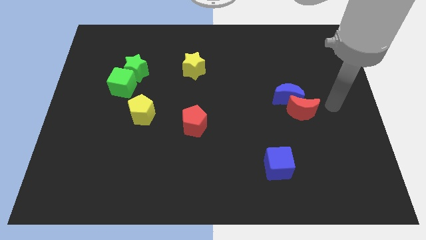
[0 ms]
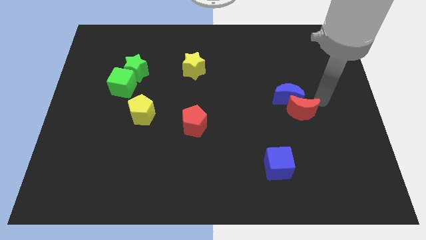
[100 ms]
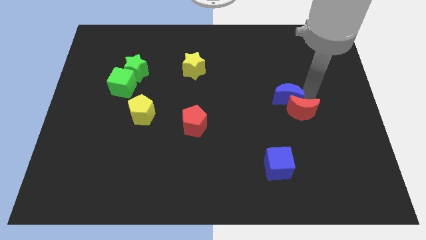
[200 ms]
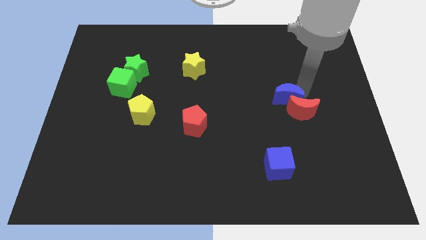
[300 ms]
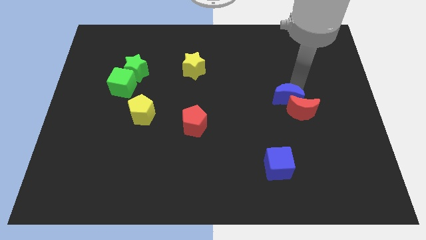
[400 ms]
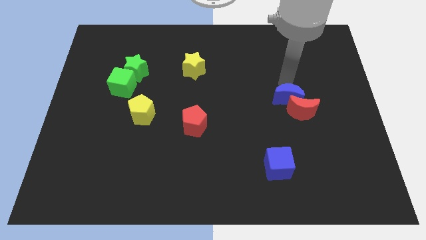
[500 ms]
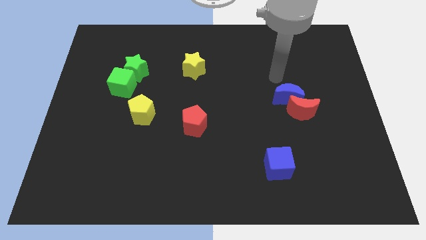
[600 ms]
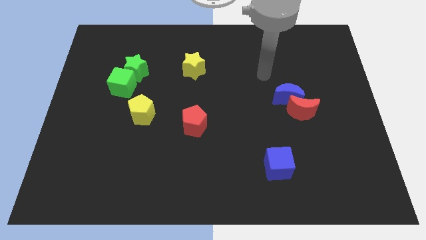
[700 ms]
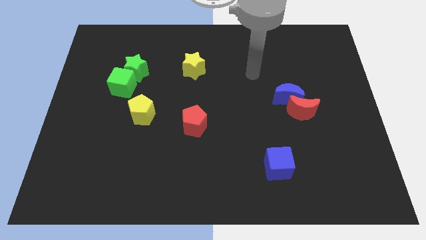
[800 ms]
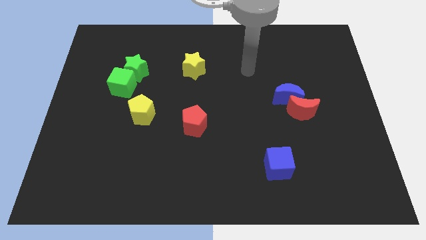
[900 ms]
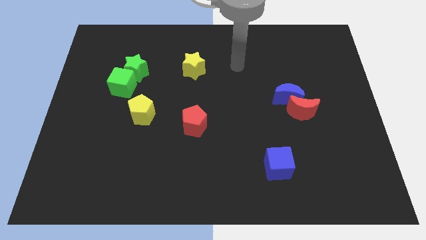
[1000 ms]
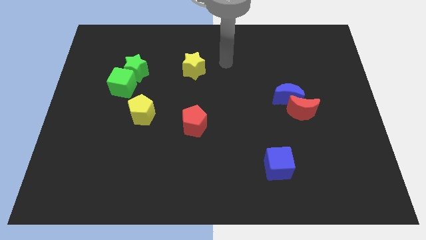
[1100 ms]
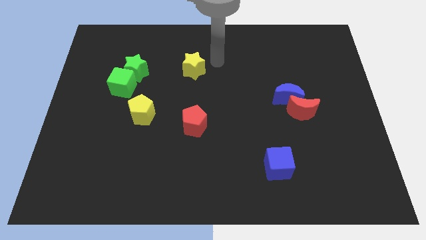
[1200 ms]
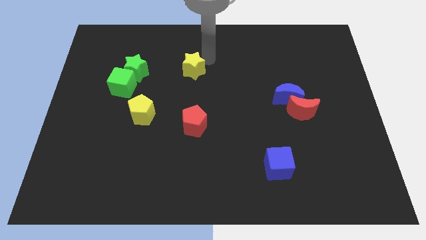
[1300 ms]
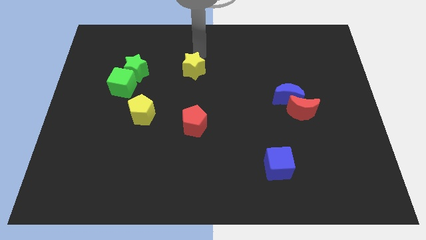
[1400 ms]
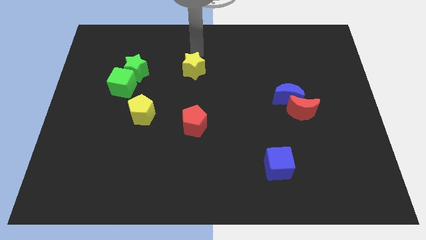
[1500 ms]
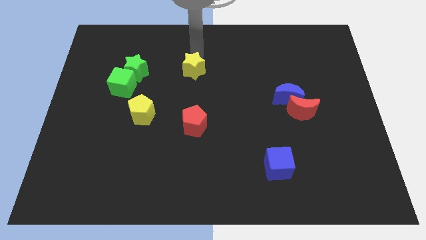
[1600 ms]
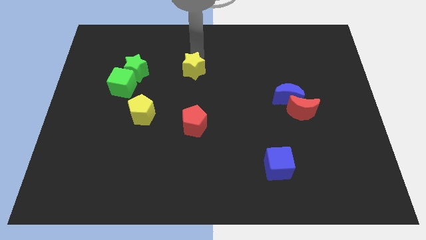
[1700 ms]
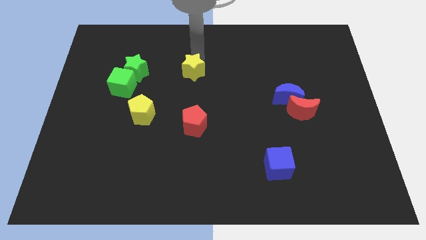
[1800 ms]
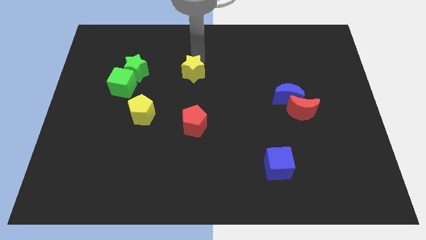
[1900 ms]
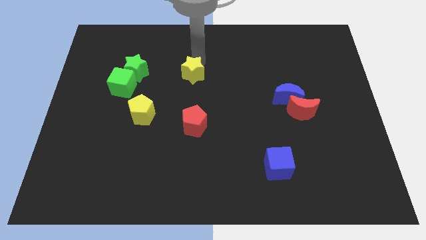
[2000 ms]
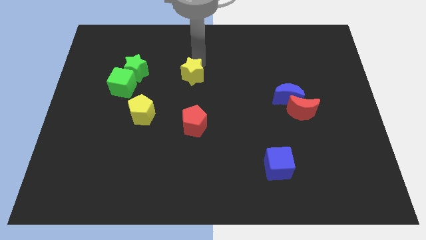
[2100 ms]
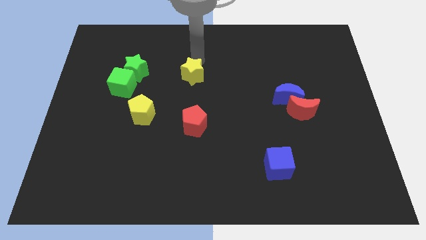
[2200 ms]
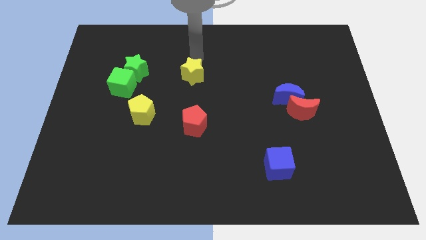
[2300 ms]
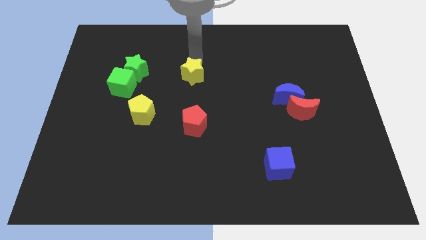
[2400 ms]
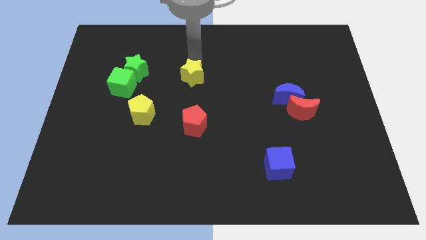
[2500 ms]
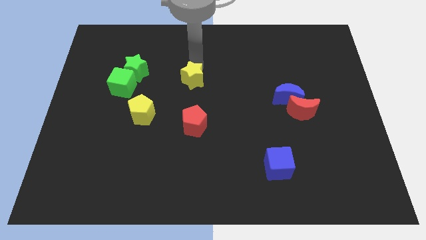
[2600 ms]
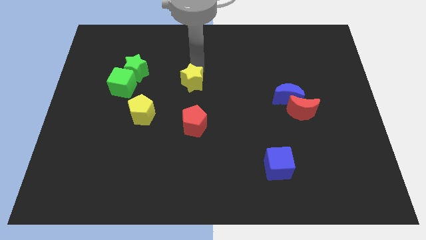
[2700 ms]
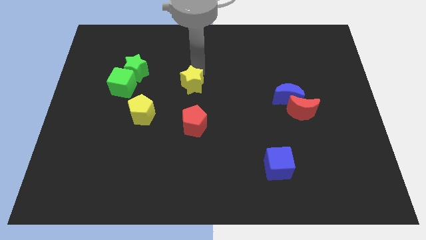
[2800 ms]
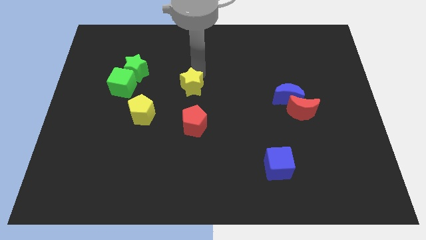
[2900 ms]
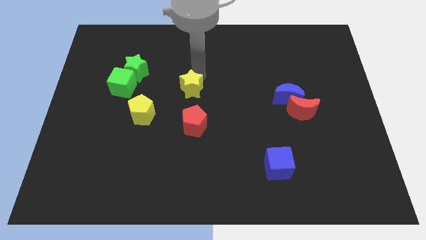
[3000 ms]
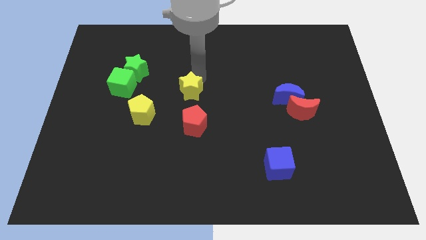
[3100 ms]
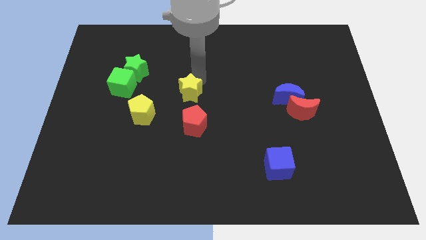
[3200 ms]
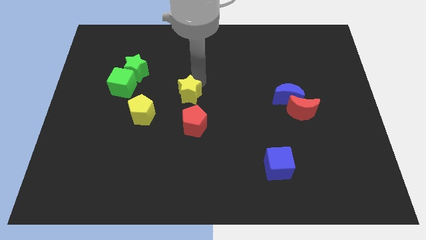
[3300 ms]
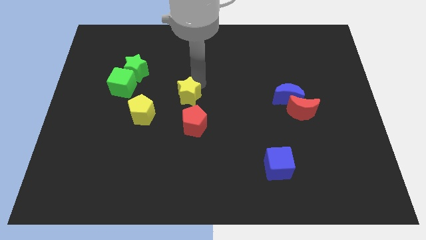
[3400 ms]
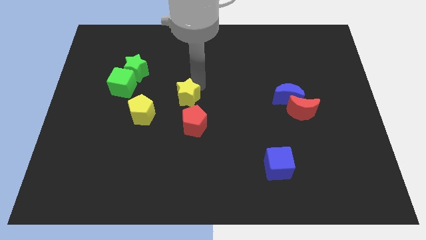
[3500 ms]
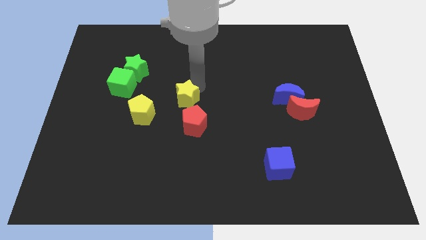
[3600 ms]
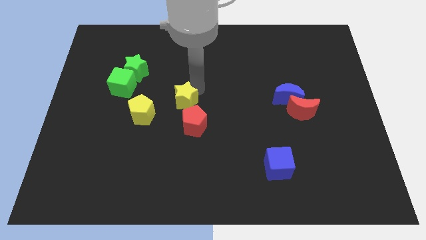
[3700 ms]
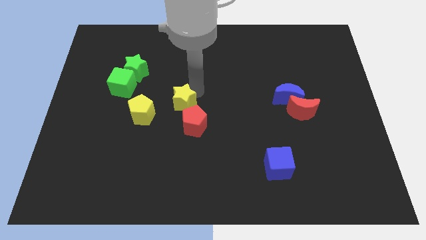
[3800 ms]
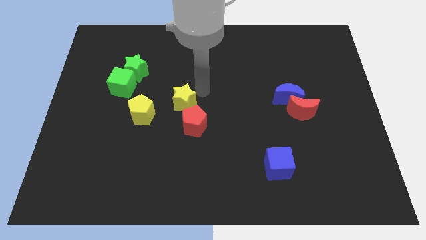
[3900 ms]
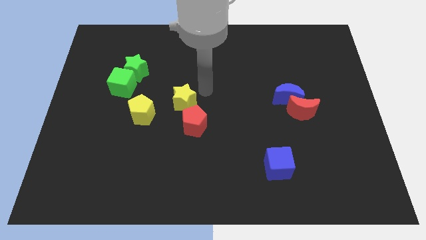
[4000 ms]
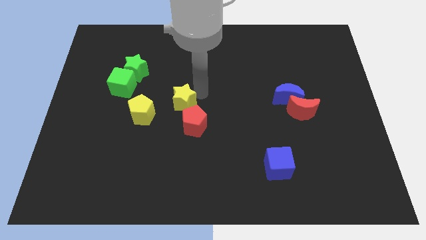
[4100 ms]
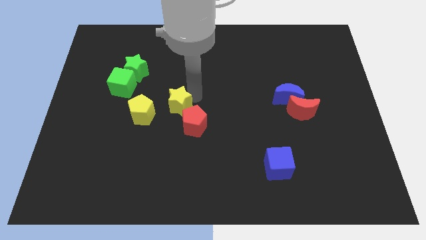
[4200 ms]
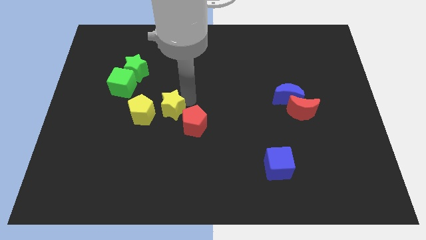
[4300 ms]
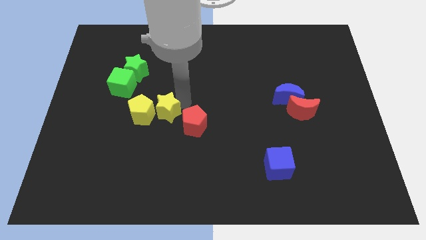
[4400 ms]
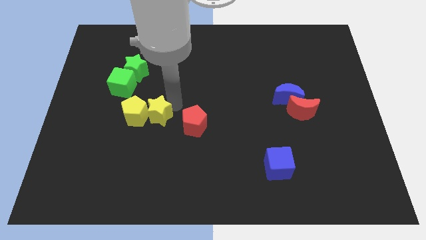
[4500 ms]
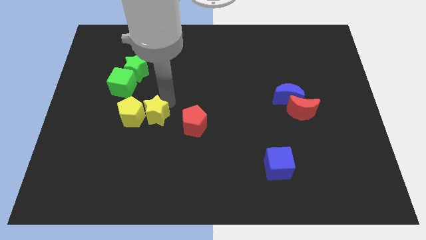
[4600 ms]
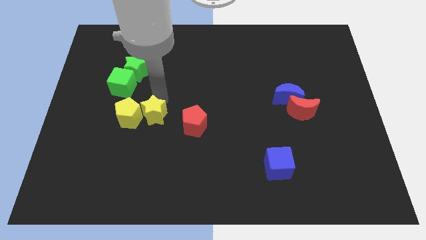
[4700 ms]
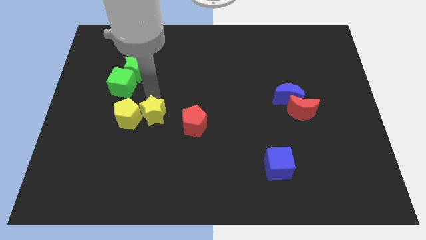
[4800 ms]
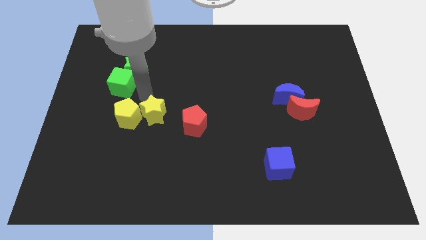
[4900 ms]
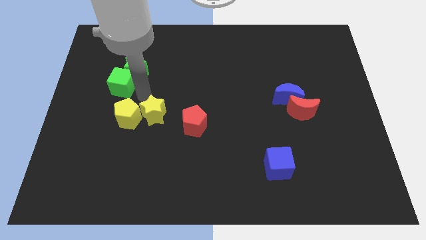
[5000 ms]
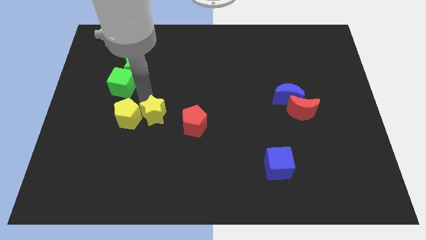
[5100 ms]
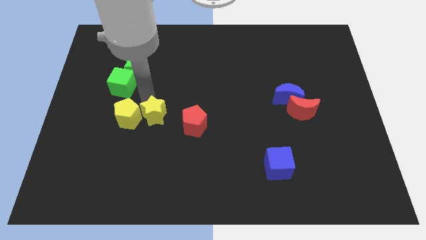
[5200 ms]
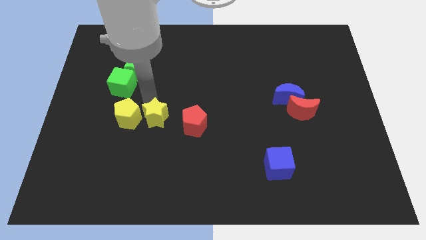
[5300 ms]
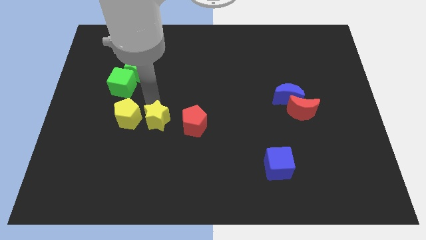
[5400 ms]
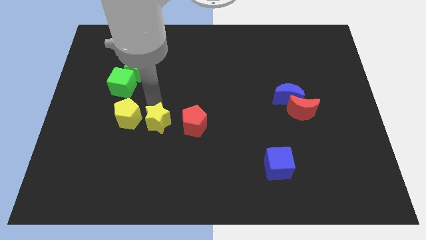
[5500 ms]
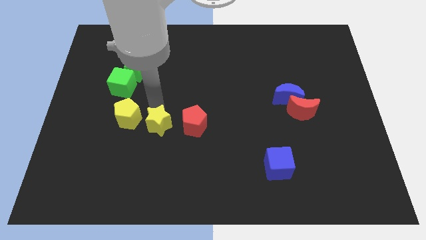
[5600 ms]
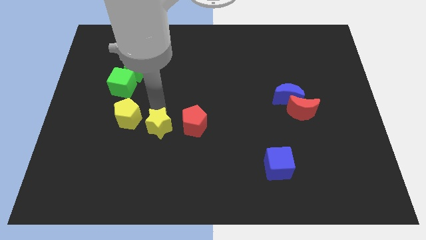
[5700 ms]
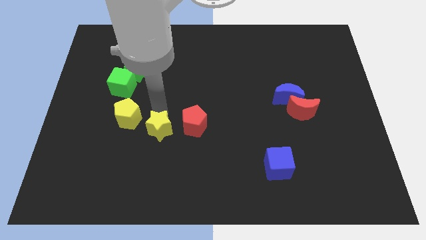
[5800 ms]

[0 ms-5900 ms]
move the yellow star to the bottom left of the red pentagon

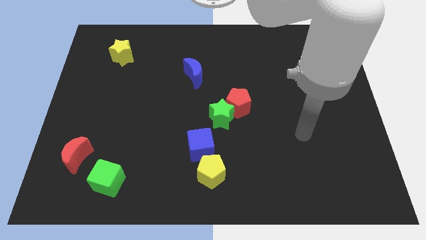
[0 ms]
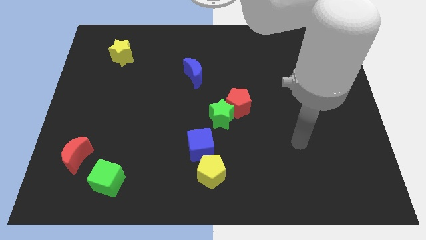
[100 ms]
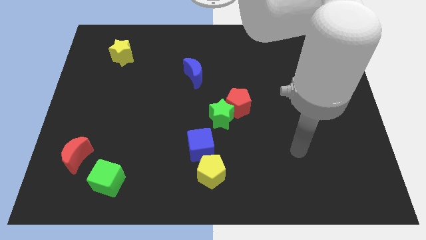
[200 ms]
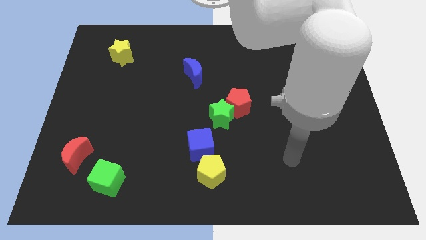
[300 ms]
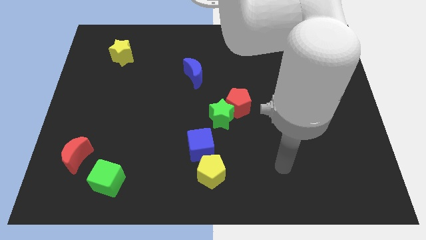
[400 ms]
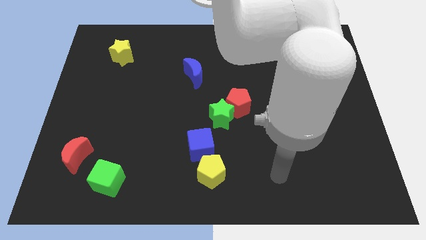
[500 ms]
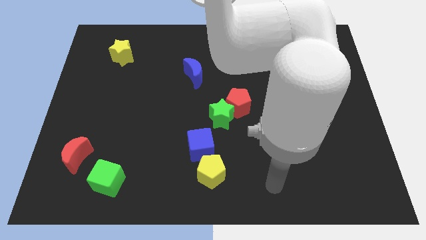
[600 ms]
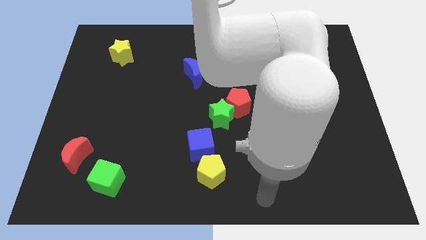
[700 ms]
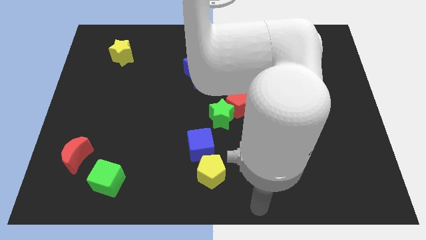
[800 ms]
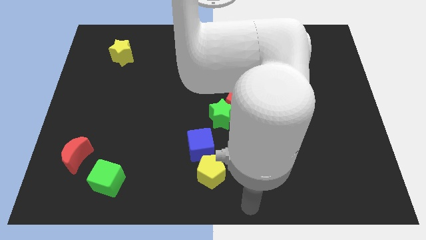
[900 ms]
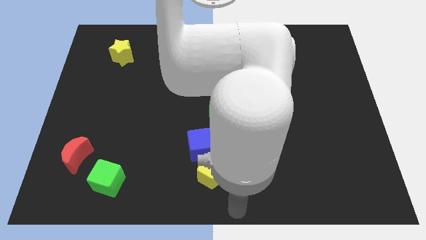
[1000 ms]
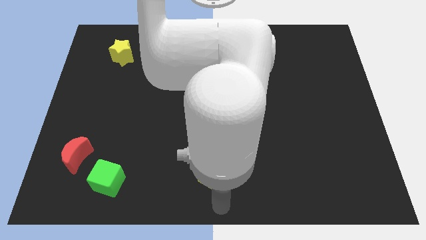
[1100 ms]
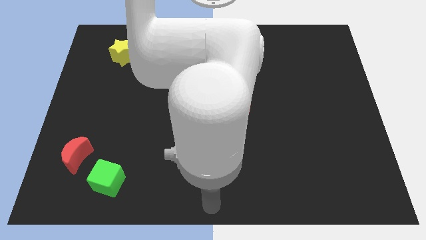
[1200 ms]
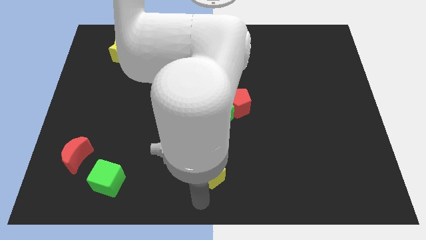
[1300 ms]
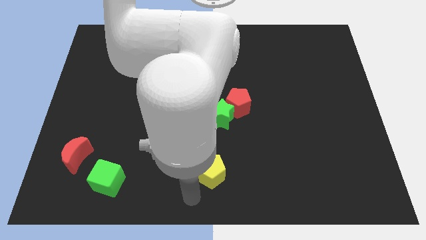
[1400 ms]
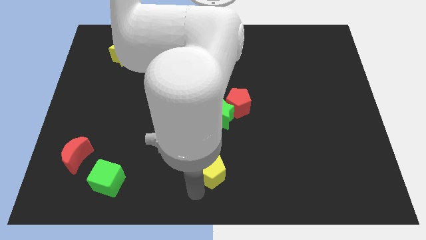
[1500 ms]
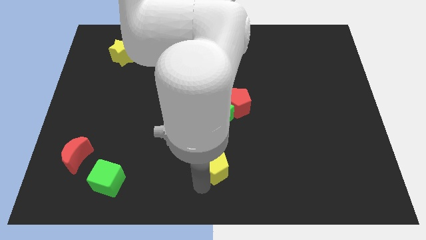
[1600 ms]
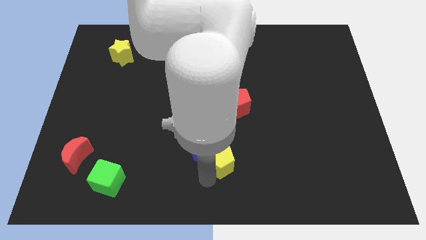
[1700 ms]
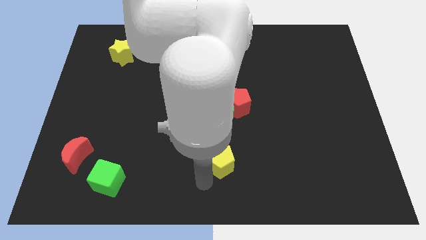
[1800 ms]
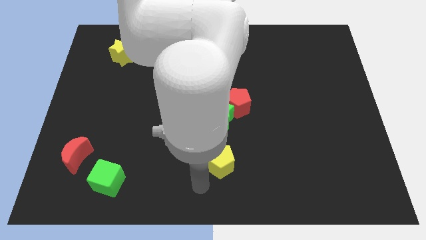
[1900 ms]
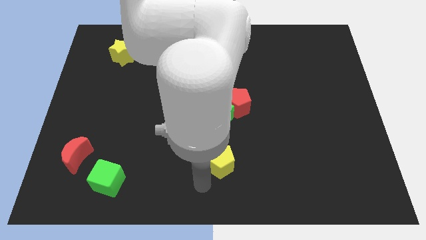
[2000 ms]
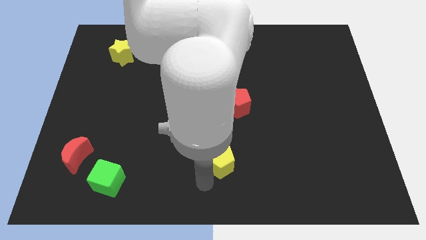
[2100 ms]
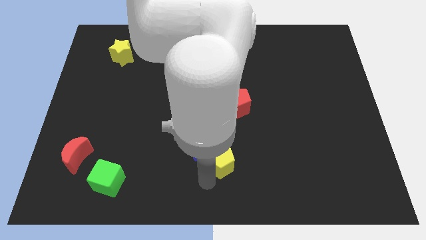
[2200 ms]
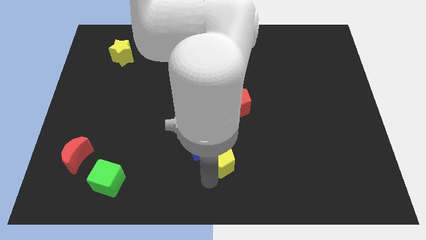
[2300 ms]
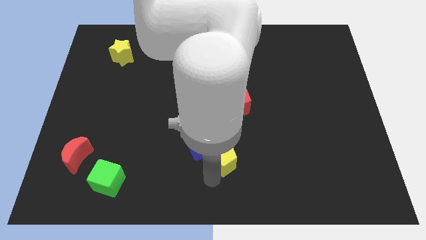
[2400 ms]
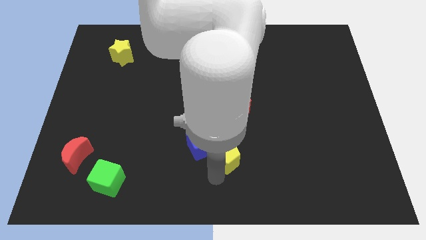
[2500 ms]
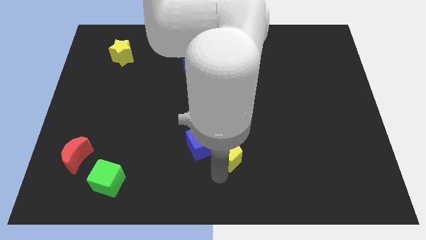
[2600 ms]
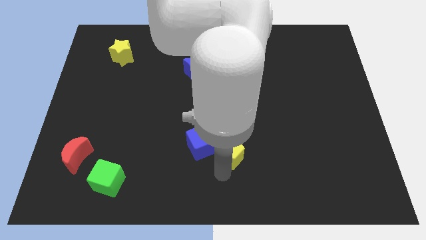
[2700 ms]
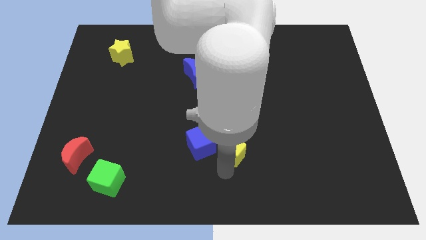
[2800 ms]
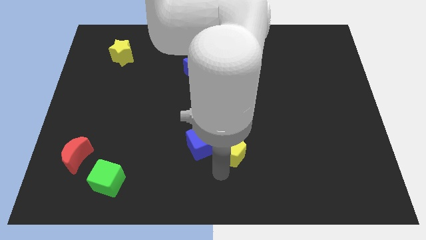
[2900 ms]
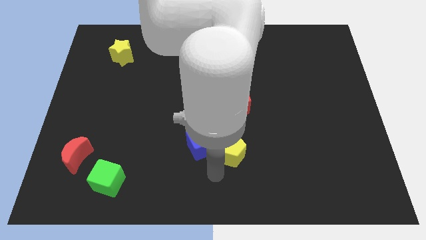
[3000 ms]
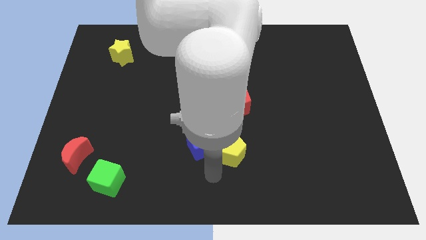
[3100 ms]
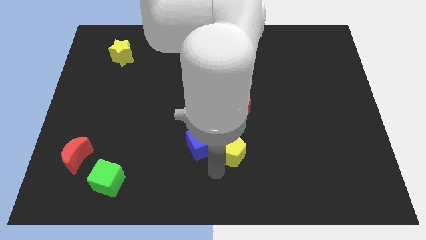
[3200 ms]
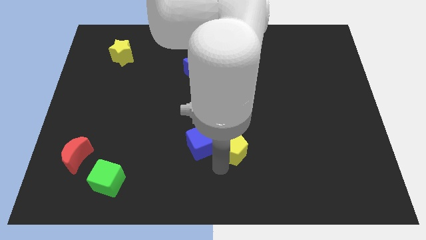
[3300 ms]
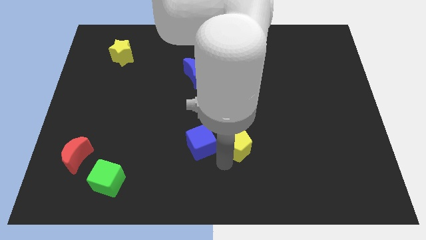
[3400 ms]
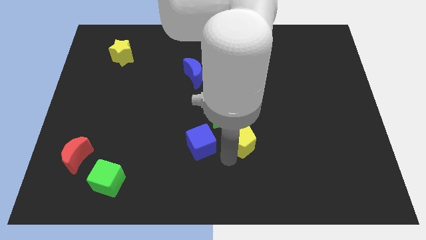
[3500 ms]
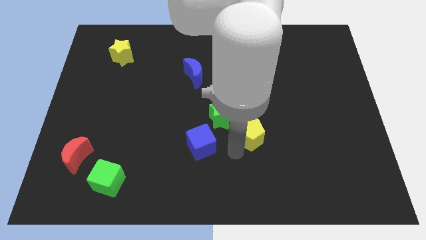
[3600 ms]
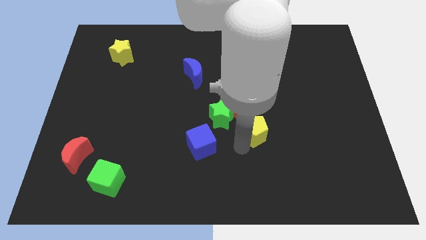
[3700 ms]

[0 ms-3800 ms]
put the yellow pentagon right of the green star
